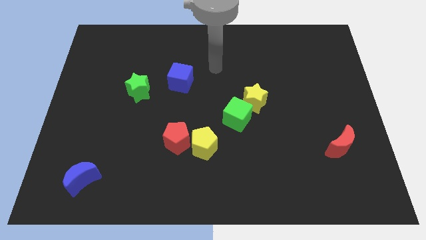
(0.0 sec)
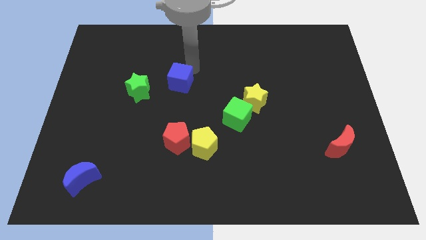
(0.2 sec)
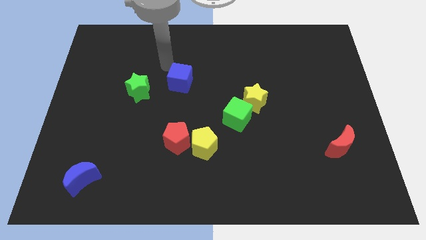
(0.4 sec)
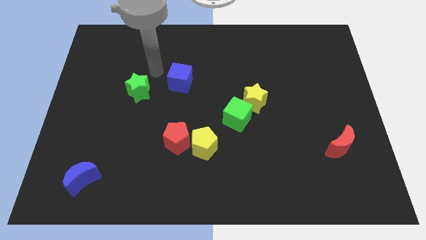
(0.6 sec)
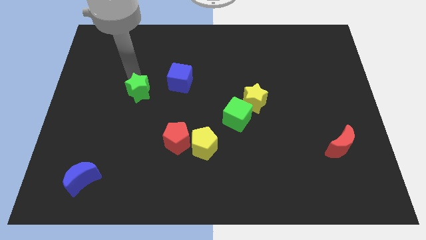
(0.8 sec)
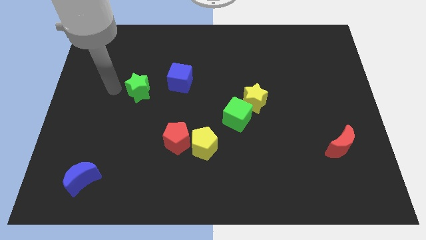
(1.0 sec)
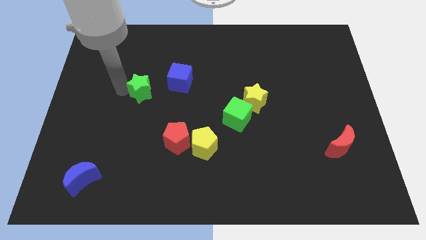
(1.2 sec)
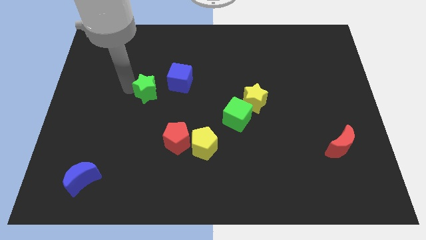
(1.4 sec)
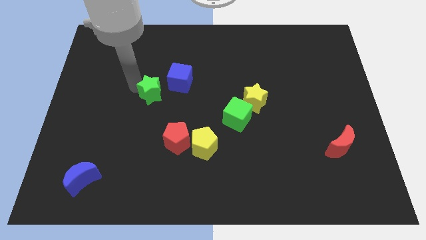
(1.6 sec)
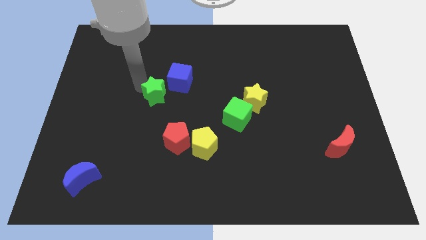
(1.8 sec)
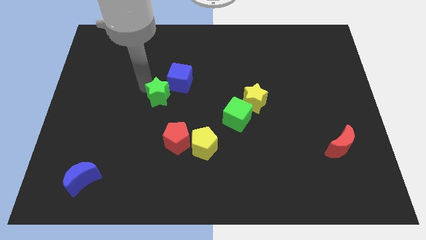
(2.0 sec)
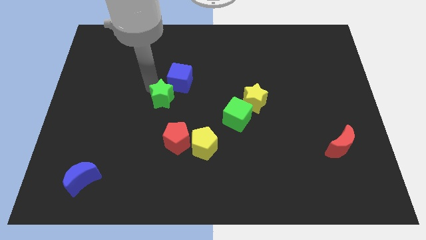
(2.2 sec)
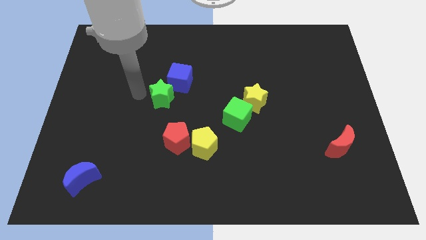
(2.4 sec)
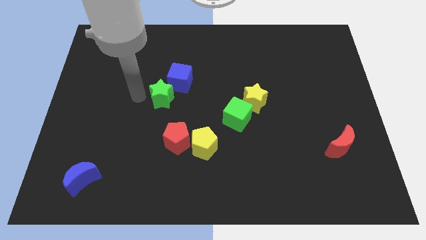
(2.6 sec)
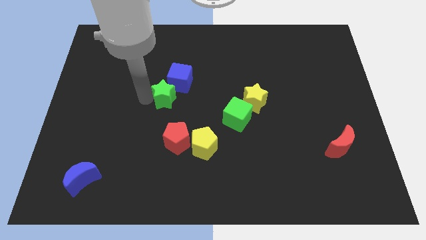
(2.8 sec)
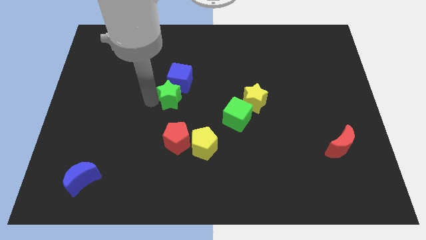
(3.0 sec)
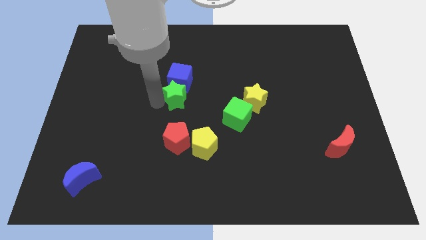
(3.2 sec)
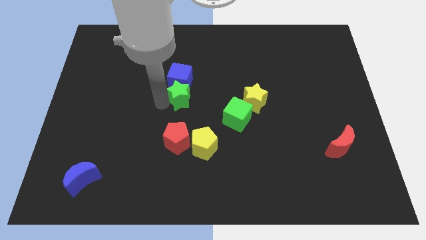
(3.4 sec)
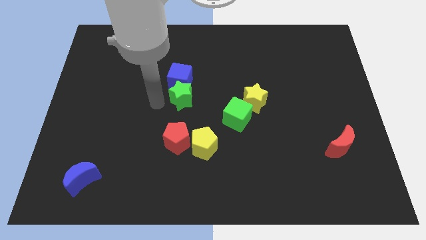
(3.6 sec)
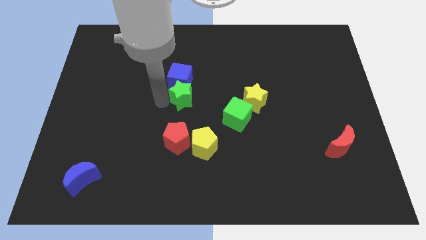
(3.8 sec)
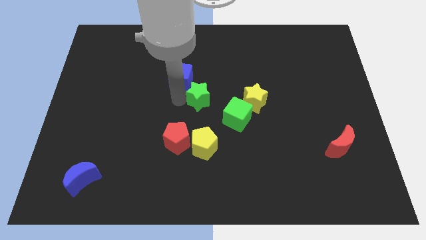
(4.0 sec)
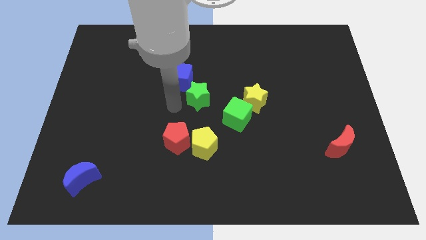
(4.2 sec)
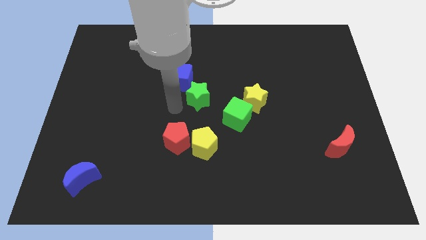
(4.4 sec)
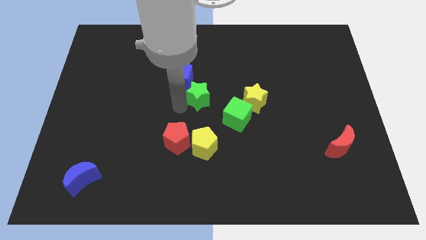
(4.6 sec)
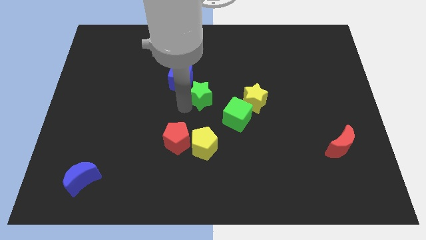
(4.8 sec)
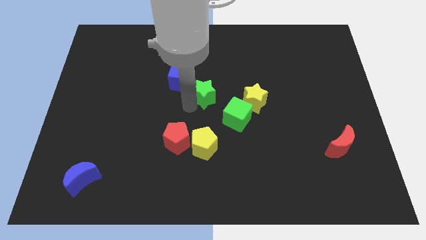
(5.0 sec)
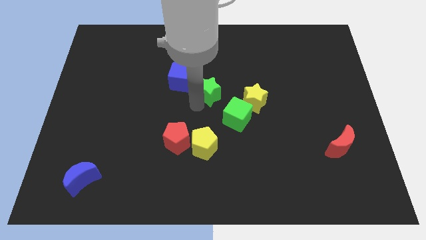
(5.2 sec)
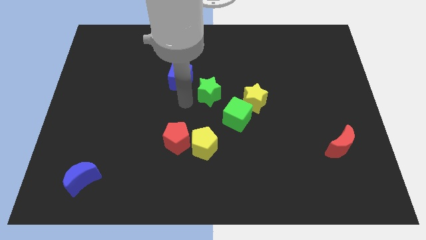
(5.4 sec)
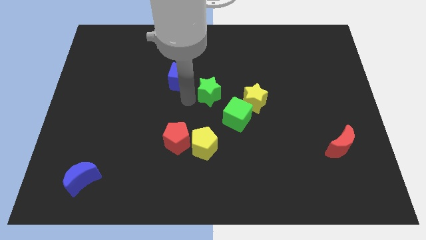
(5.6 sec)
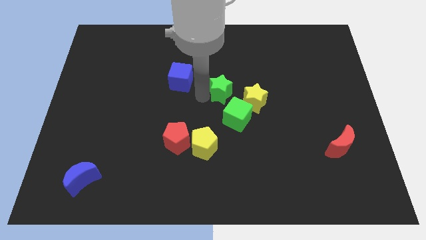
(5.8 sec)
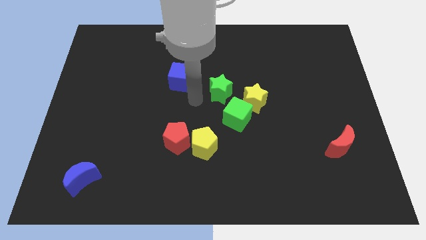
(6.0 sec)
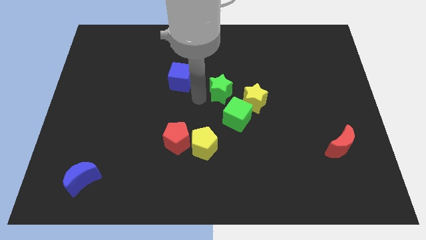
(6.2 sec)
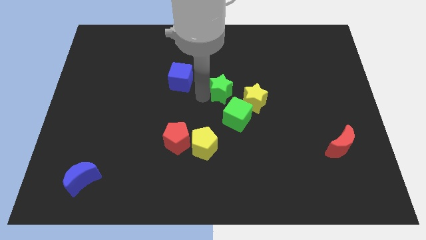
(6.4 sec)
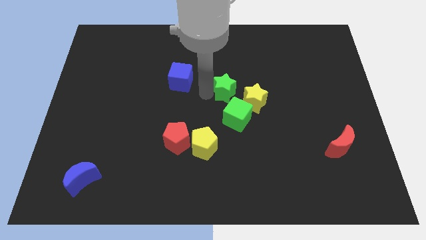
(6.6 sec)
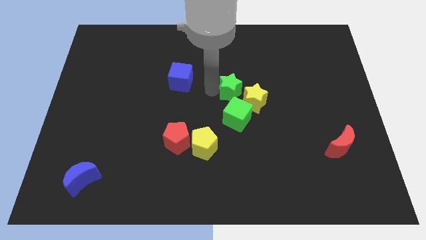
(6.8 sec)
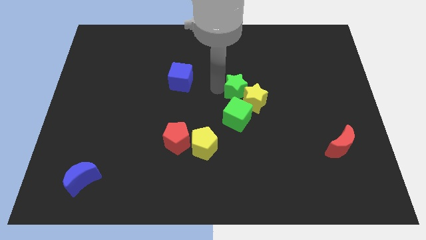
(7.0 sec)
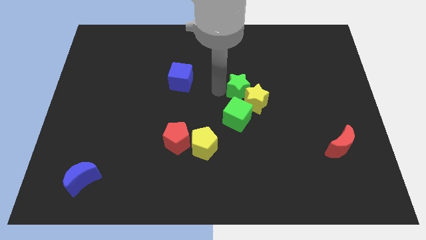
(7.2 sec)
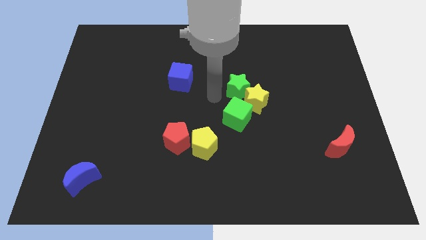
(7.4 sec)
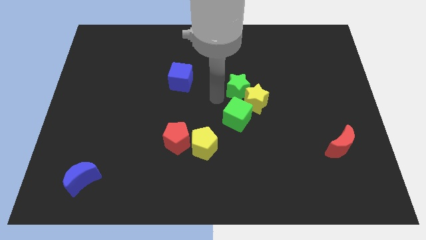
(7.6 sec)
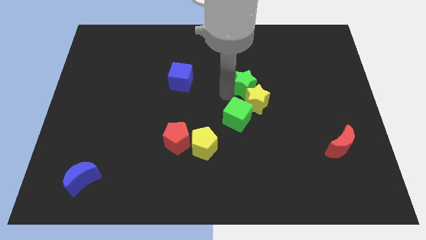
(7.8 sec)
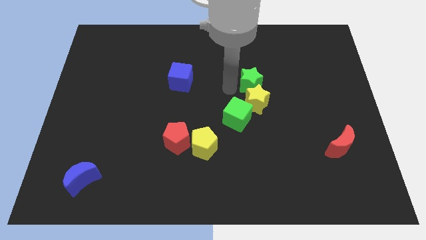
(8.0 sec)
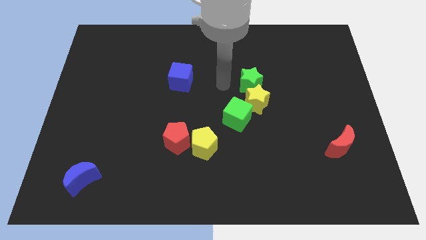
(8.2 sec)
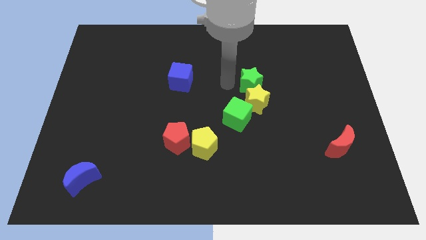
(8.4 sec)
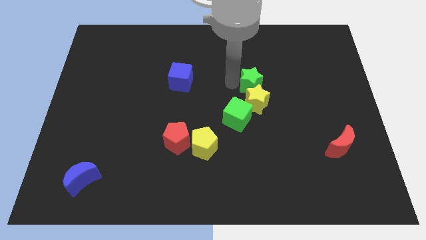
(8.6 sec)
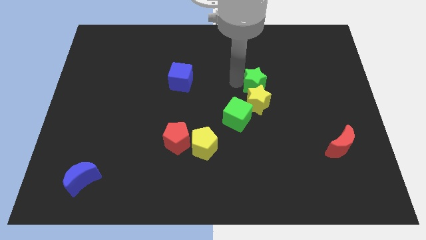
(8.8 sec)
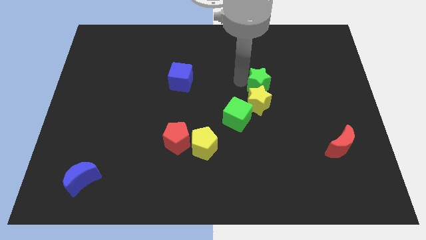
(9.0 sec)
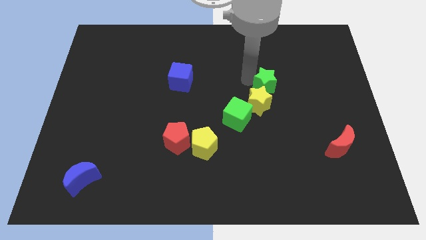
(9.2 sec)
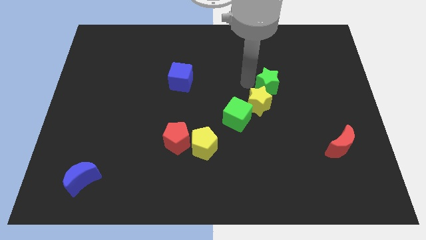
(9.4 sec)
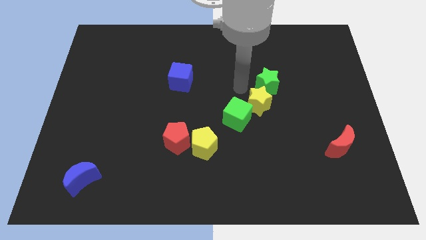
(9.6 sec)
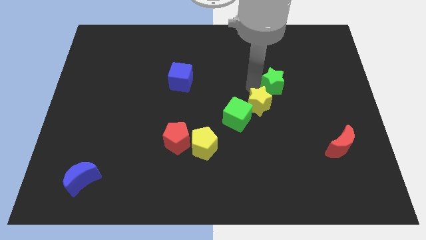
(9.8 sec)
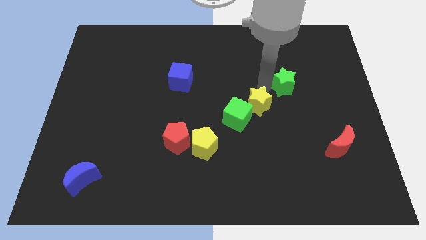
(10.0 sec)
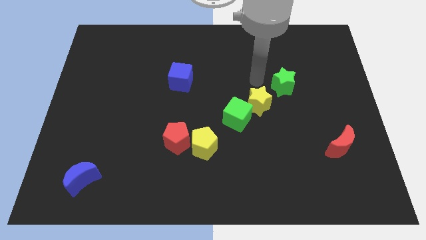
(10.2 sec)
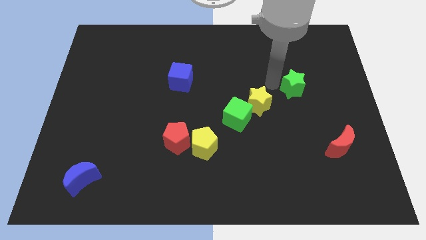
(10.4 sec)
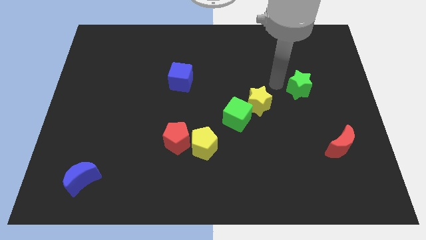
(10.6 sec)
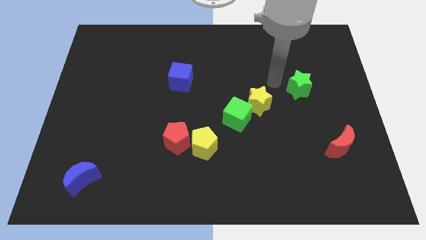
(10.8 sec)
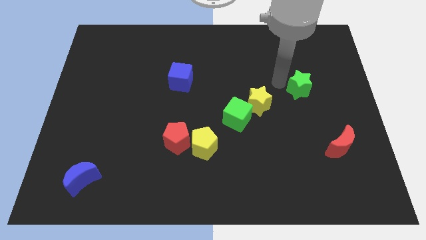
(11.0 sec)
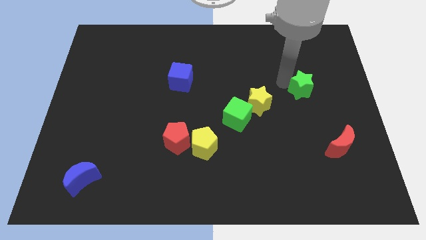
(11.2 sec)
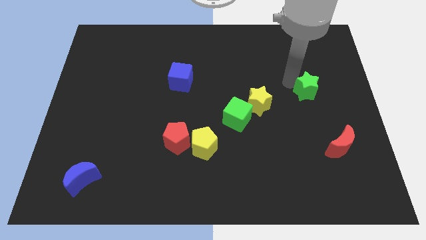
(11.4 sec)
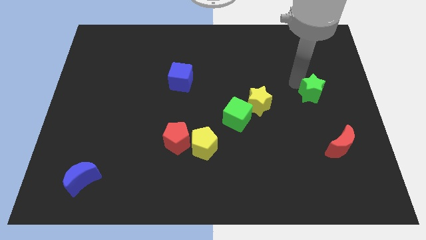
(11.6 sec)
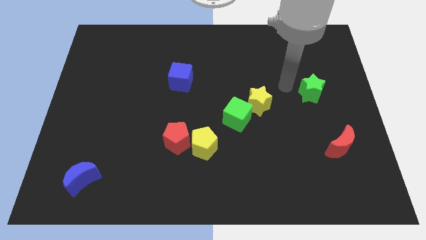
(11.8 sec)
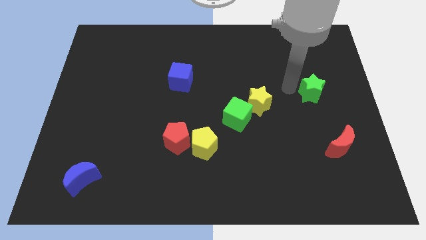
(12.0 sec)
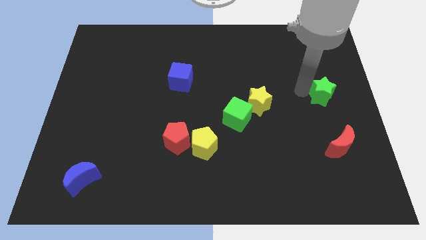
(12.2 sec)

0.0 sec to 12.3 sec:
move the green star to the center right
